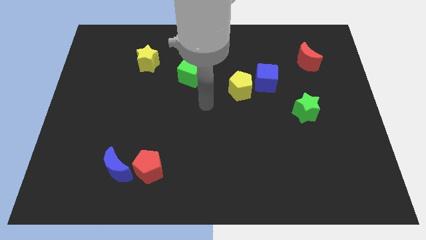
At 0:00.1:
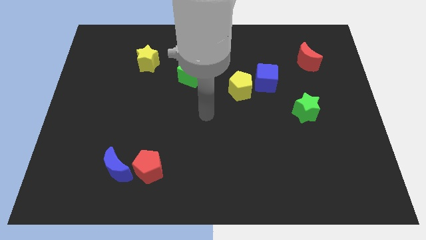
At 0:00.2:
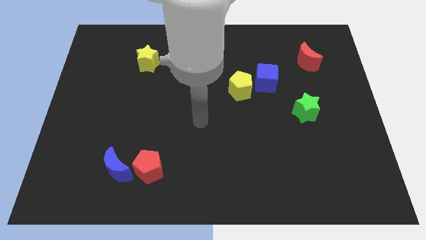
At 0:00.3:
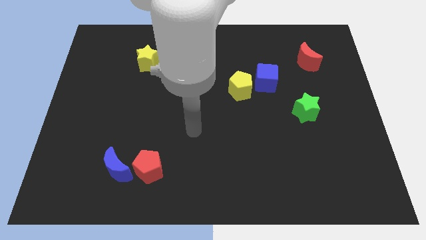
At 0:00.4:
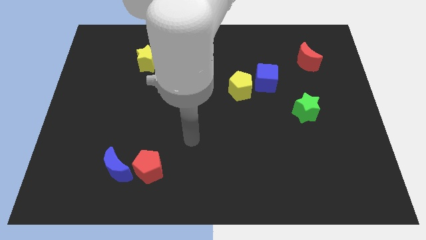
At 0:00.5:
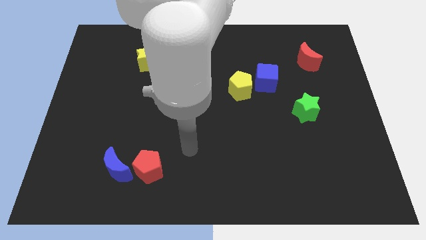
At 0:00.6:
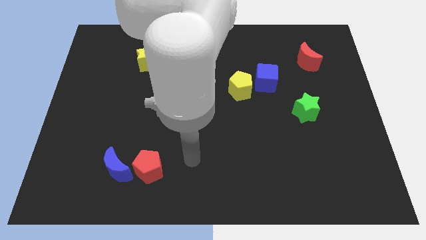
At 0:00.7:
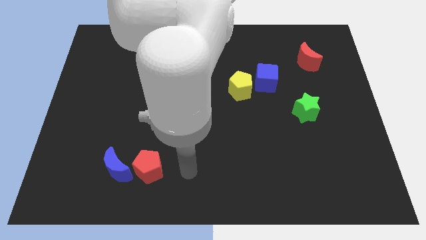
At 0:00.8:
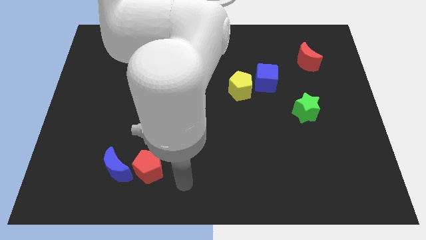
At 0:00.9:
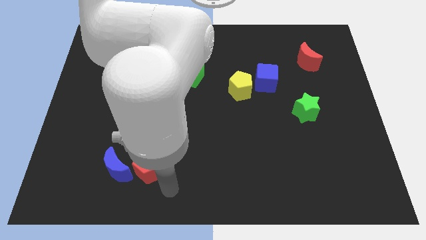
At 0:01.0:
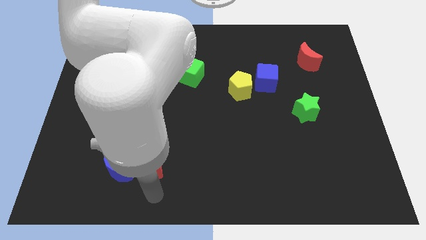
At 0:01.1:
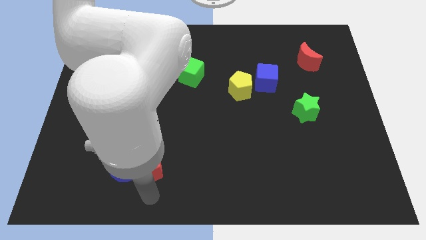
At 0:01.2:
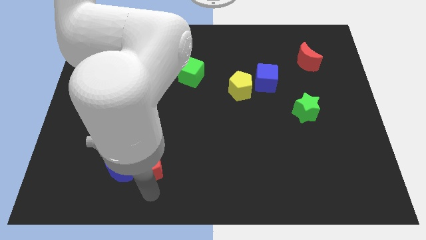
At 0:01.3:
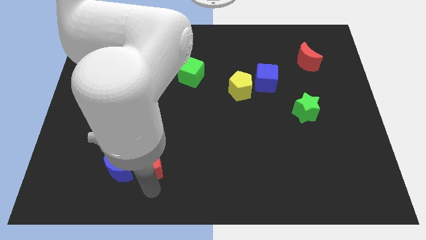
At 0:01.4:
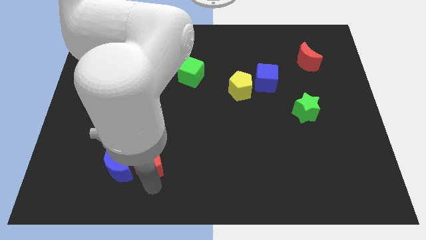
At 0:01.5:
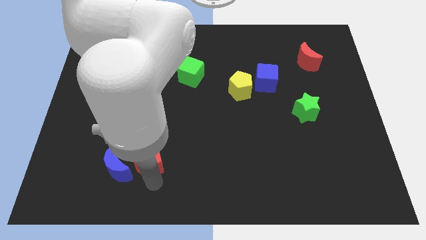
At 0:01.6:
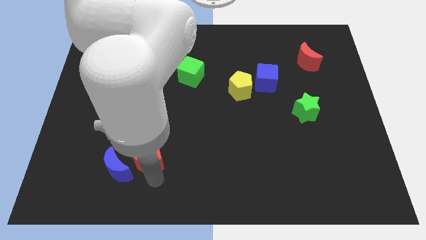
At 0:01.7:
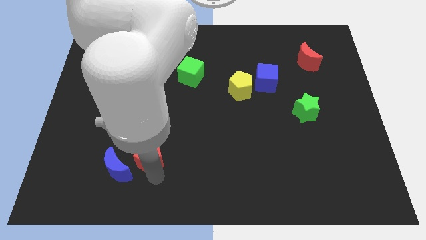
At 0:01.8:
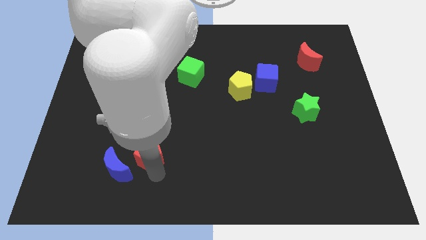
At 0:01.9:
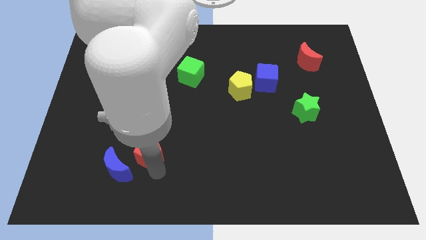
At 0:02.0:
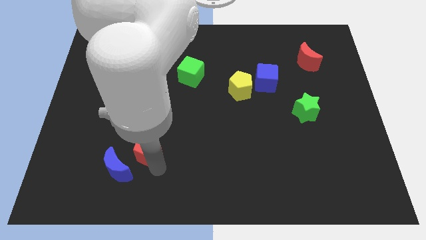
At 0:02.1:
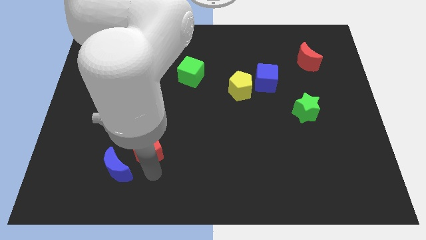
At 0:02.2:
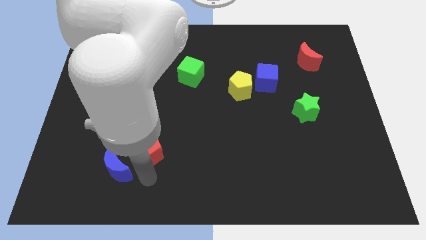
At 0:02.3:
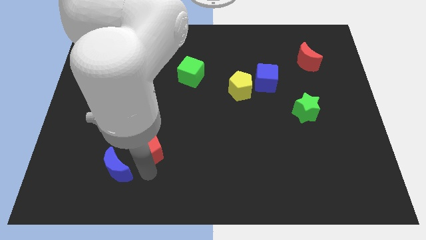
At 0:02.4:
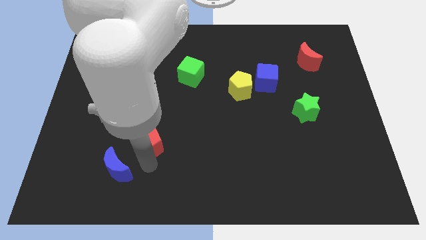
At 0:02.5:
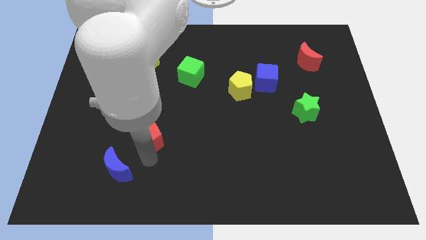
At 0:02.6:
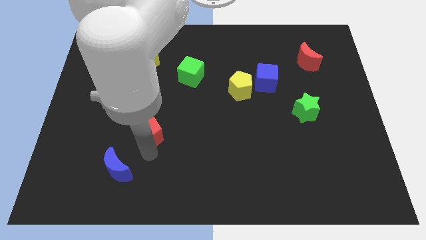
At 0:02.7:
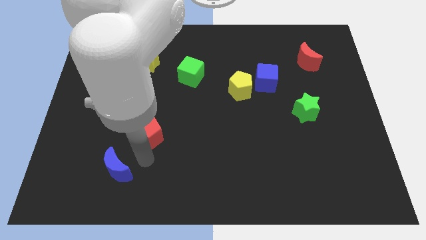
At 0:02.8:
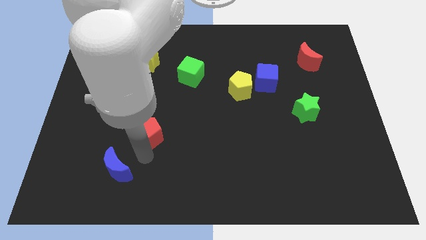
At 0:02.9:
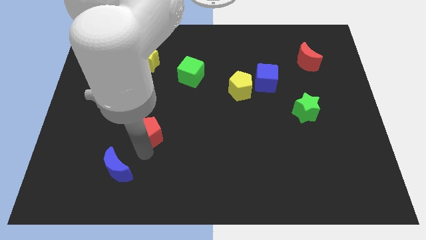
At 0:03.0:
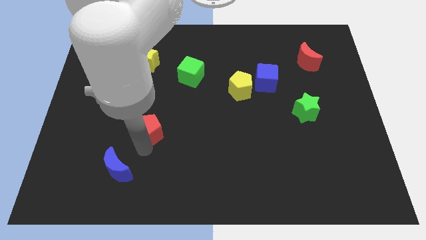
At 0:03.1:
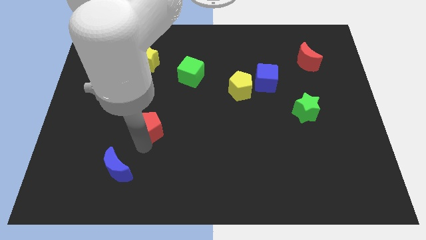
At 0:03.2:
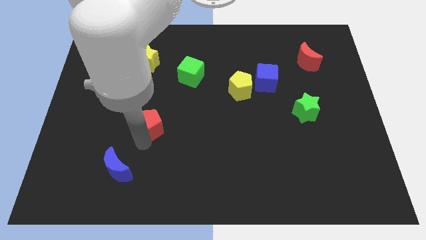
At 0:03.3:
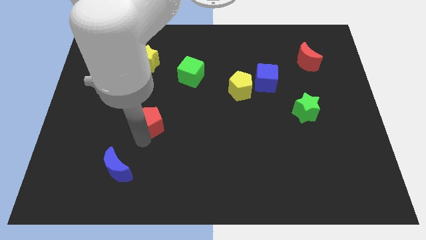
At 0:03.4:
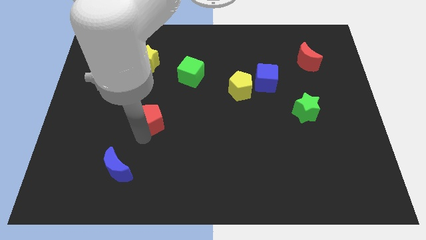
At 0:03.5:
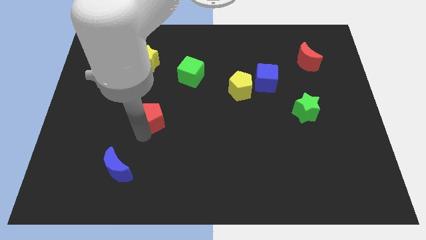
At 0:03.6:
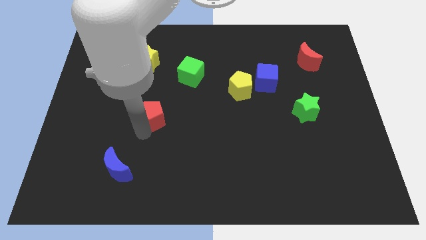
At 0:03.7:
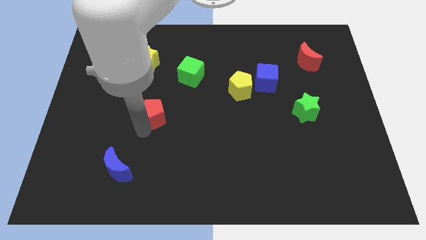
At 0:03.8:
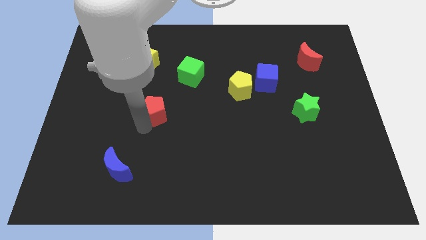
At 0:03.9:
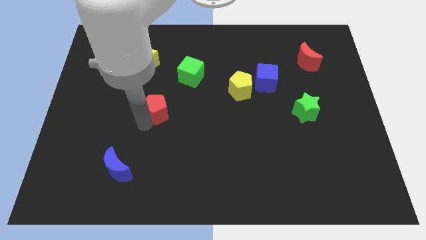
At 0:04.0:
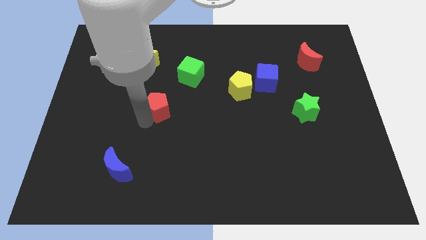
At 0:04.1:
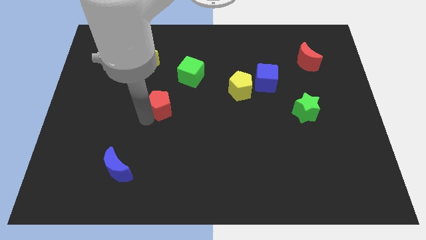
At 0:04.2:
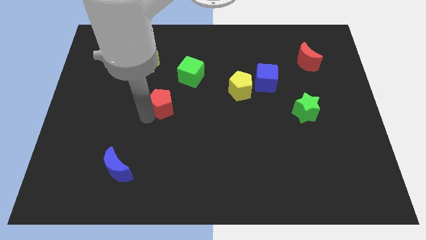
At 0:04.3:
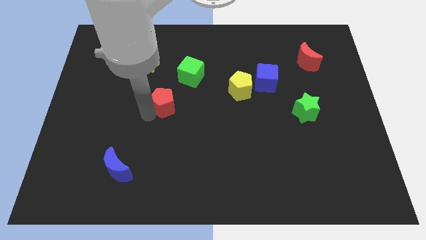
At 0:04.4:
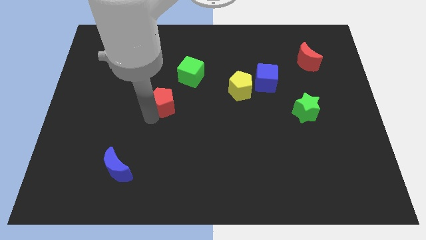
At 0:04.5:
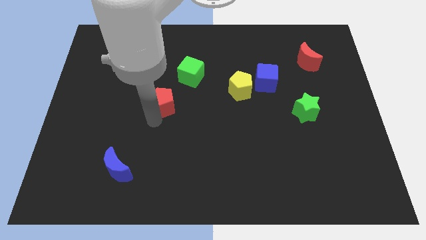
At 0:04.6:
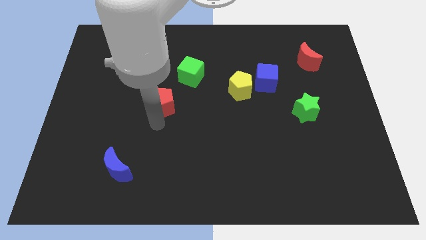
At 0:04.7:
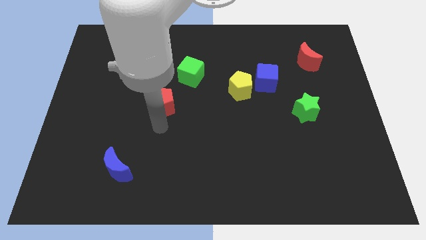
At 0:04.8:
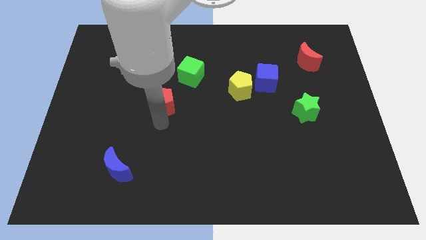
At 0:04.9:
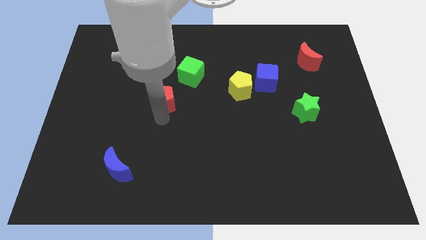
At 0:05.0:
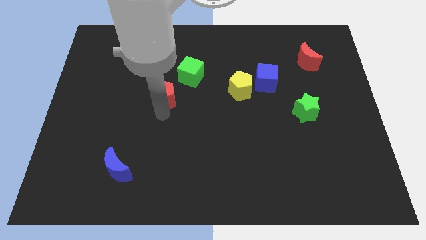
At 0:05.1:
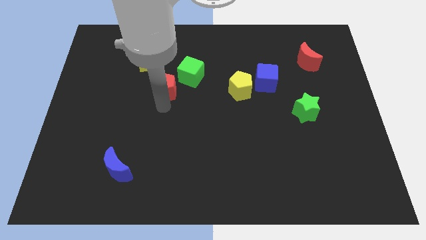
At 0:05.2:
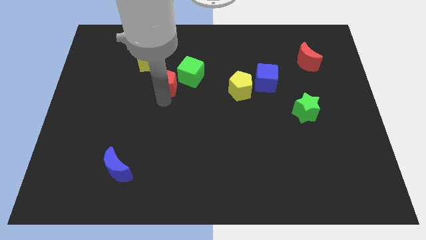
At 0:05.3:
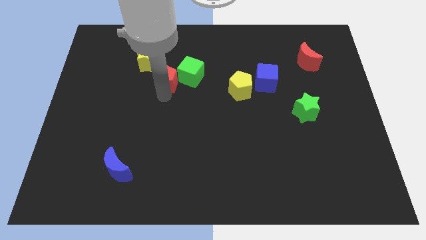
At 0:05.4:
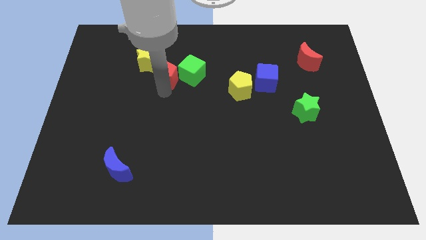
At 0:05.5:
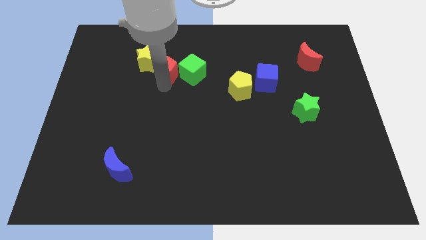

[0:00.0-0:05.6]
move the red pentagon right of the yellow star

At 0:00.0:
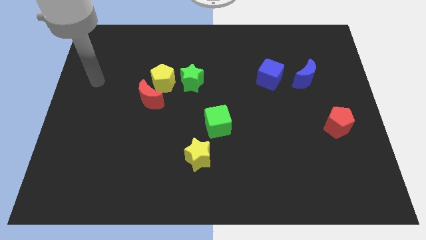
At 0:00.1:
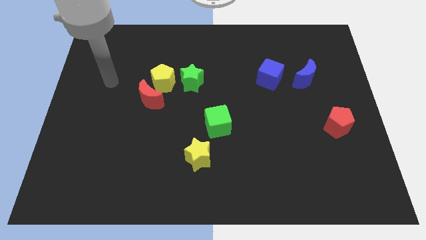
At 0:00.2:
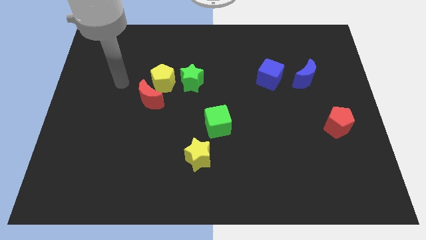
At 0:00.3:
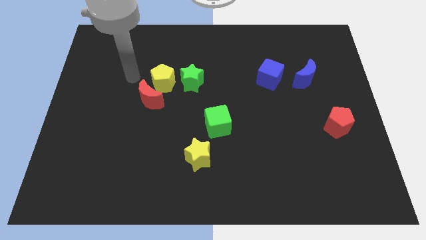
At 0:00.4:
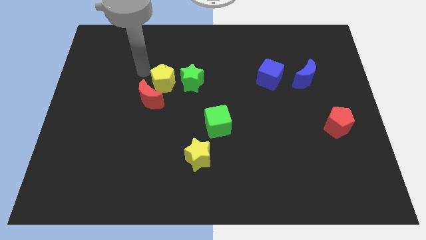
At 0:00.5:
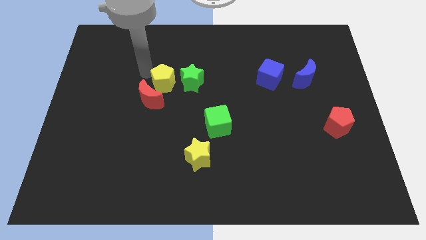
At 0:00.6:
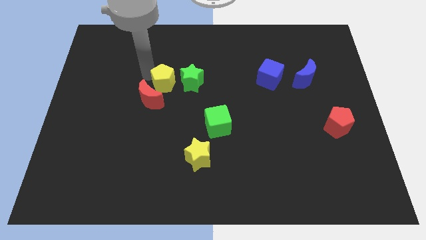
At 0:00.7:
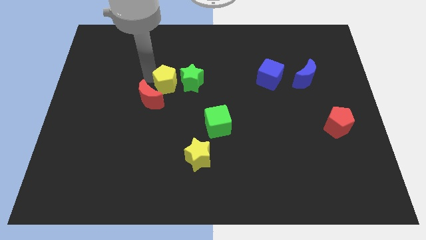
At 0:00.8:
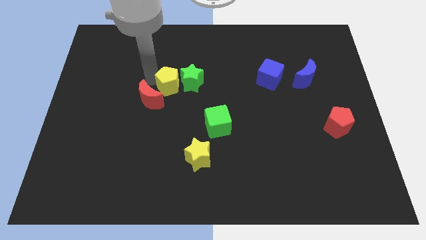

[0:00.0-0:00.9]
slide the yellow pentagon just right of the red moon

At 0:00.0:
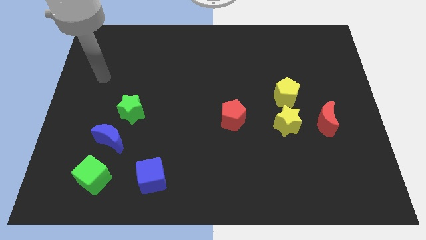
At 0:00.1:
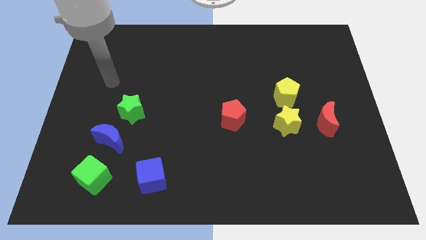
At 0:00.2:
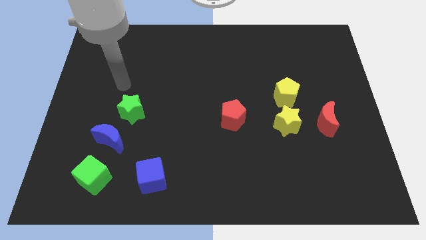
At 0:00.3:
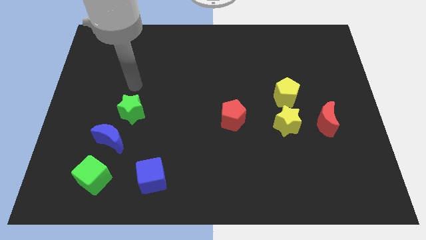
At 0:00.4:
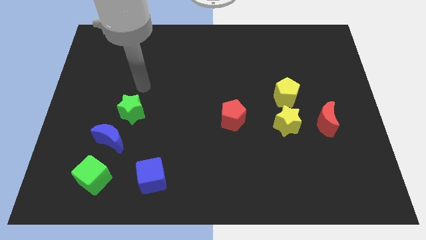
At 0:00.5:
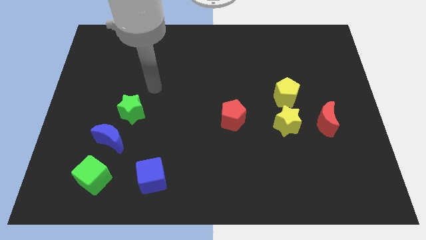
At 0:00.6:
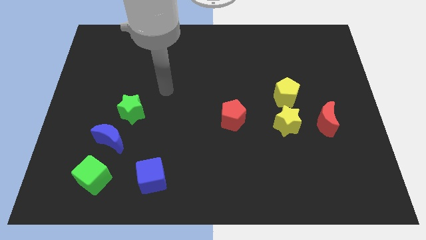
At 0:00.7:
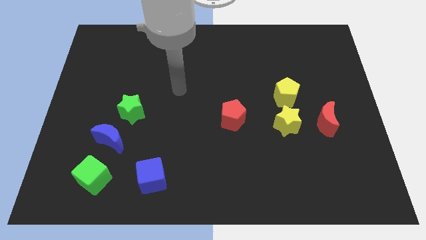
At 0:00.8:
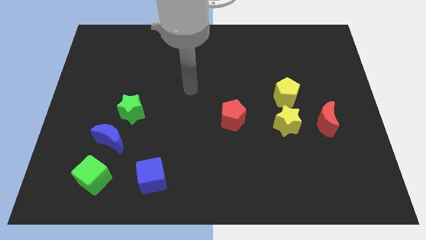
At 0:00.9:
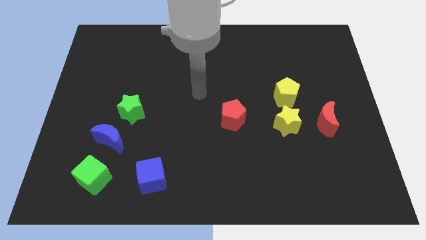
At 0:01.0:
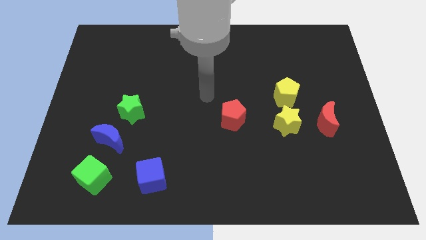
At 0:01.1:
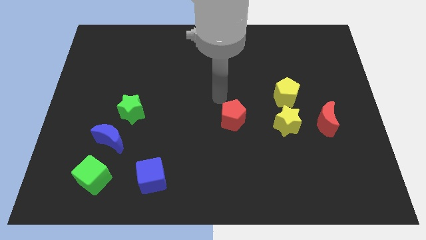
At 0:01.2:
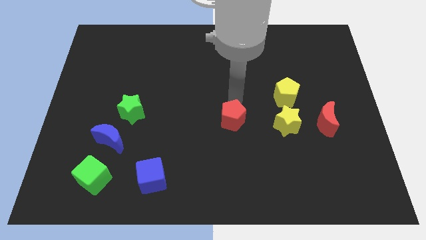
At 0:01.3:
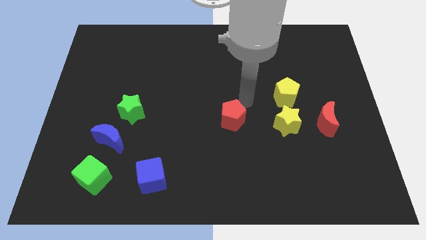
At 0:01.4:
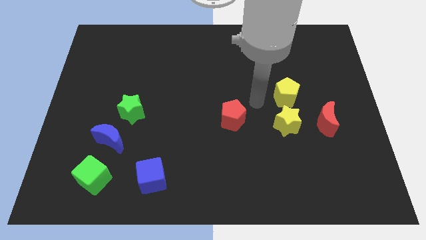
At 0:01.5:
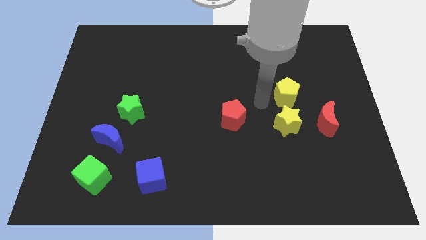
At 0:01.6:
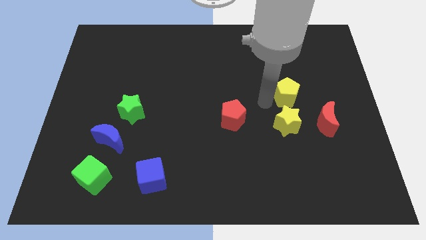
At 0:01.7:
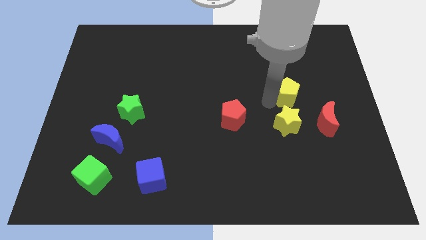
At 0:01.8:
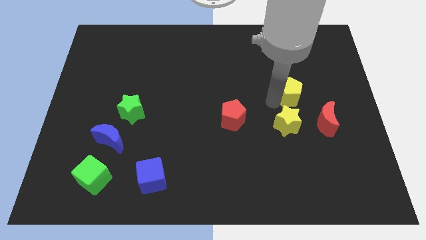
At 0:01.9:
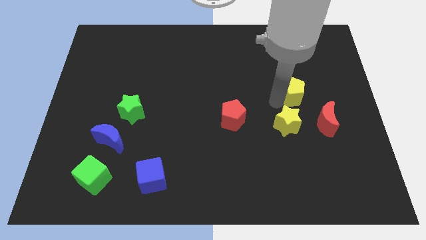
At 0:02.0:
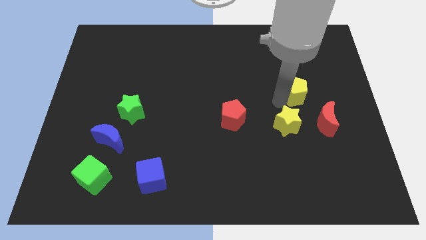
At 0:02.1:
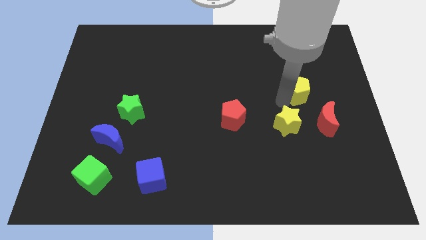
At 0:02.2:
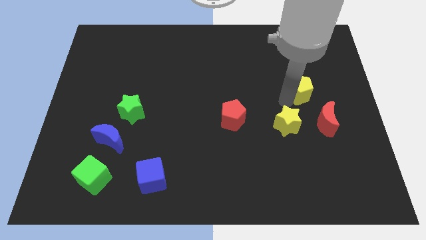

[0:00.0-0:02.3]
slide the yellow pentagon to the top side of the red moon
